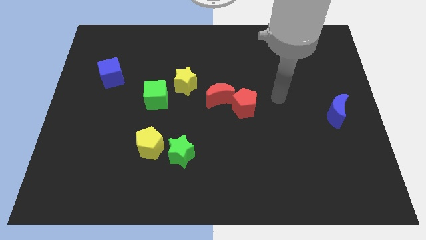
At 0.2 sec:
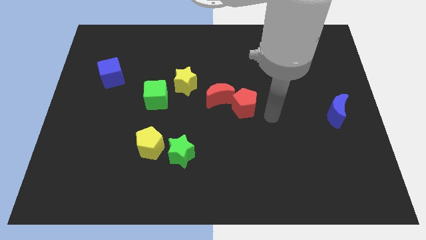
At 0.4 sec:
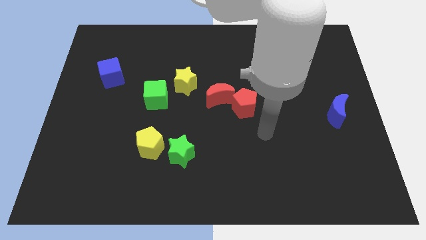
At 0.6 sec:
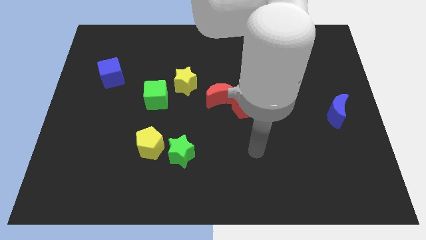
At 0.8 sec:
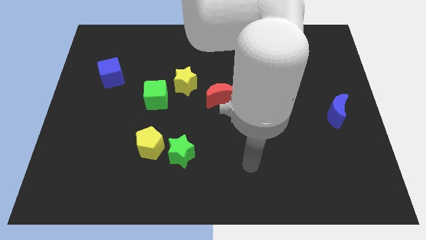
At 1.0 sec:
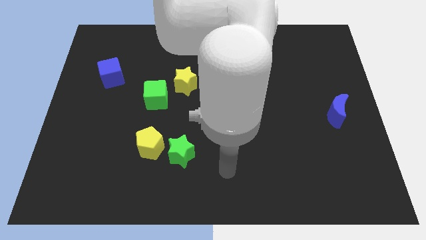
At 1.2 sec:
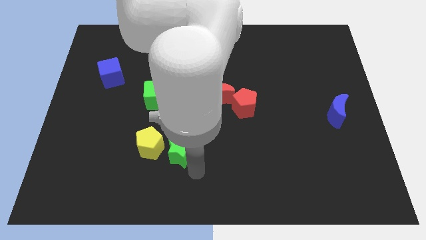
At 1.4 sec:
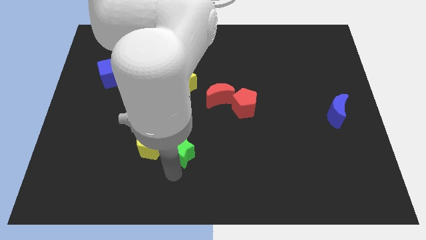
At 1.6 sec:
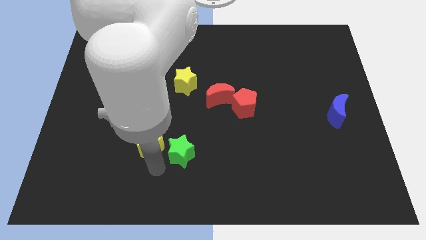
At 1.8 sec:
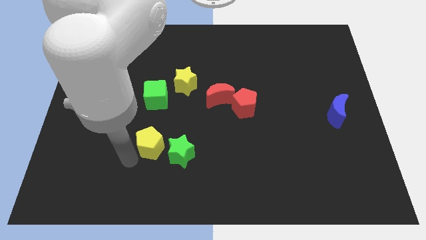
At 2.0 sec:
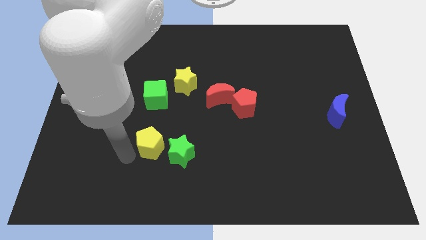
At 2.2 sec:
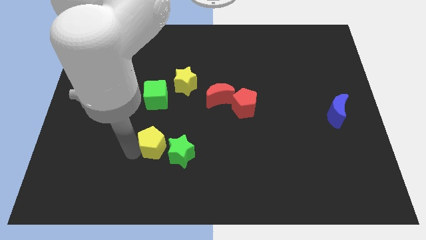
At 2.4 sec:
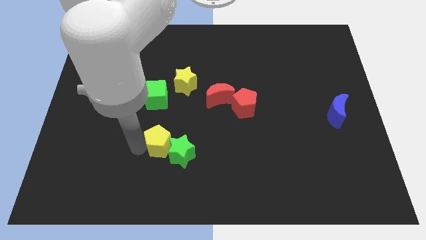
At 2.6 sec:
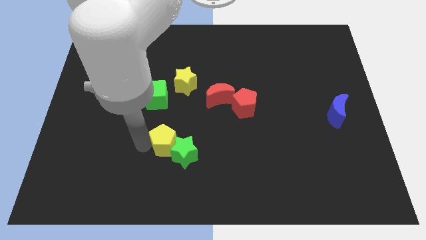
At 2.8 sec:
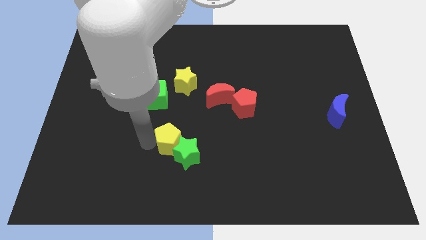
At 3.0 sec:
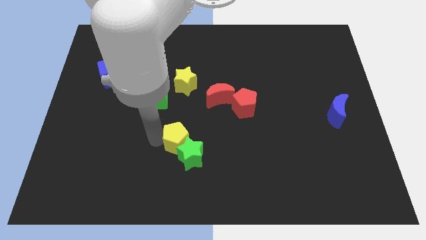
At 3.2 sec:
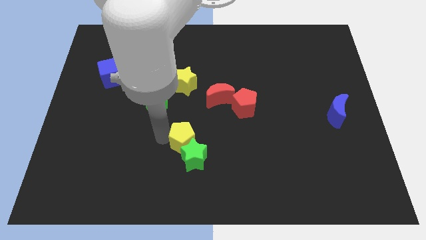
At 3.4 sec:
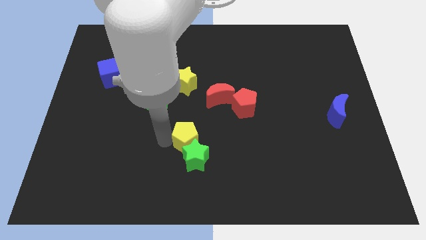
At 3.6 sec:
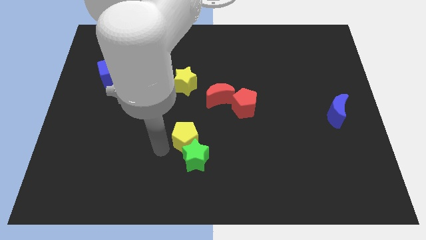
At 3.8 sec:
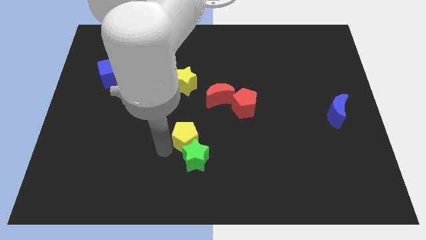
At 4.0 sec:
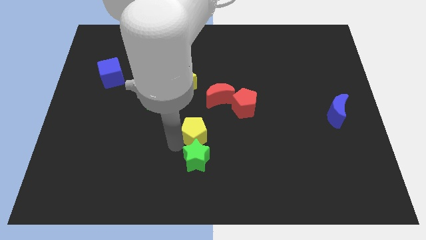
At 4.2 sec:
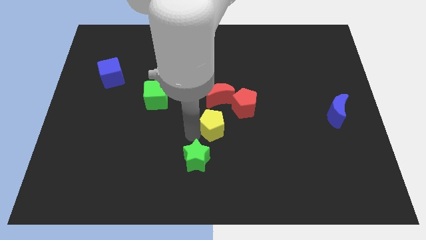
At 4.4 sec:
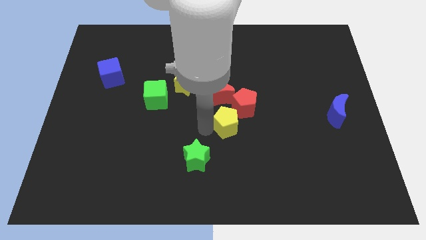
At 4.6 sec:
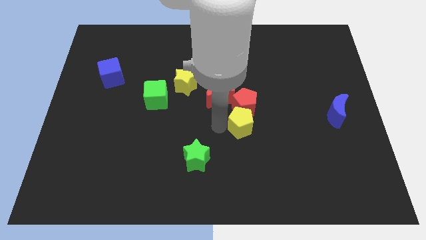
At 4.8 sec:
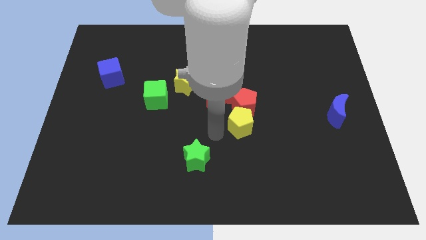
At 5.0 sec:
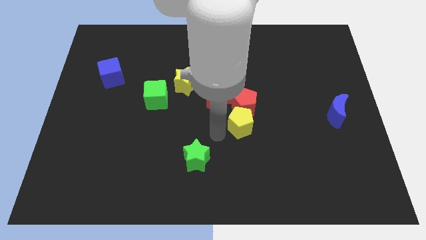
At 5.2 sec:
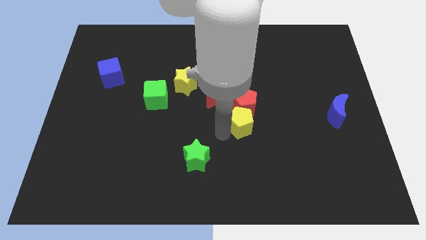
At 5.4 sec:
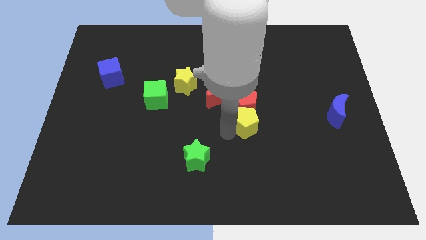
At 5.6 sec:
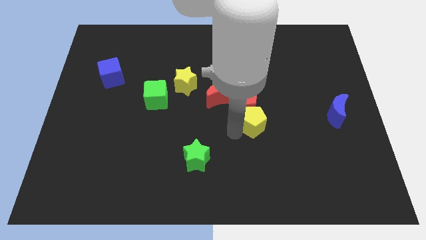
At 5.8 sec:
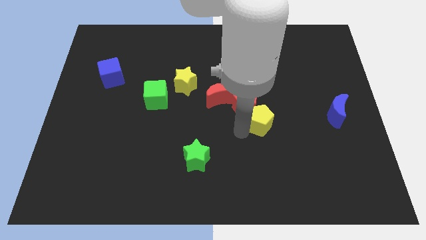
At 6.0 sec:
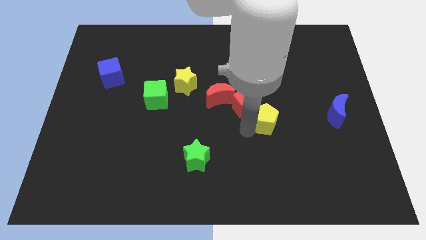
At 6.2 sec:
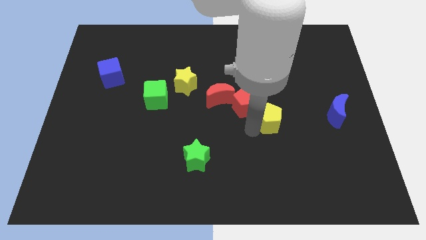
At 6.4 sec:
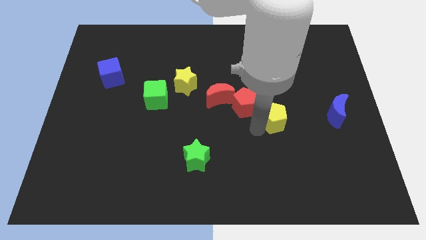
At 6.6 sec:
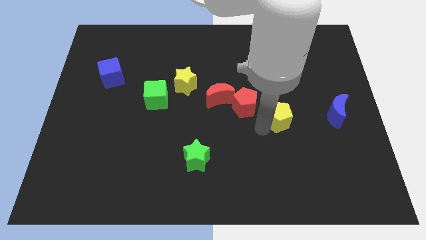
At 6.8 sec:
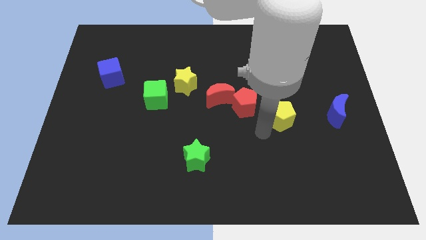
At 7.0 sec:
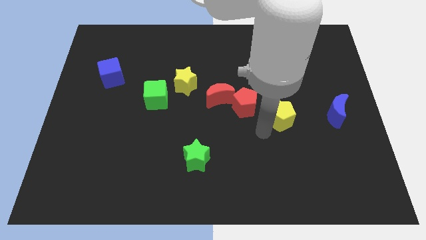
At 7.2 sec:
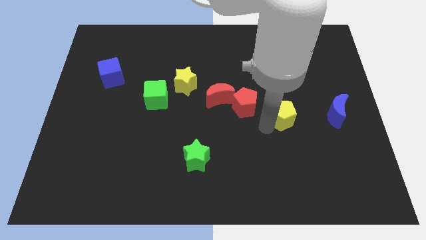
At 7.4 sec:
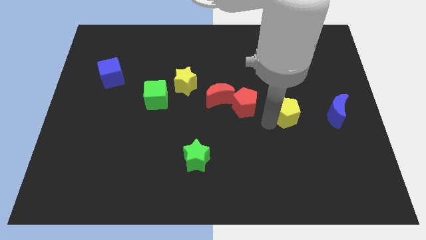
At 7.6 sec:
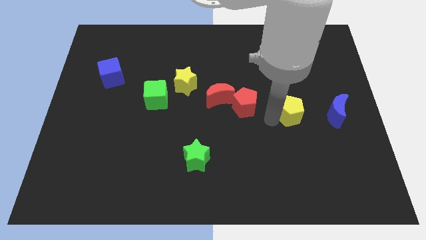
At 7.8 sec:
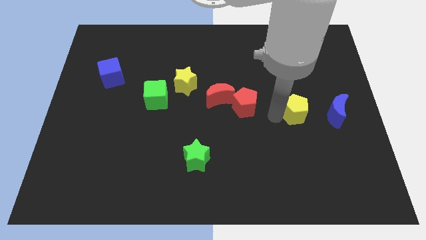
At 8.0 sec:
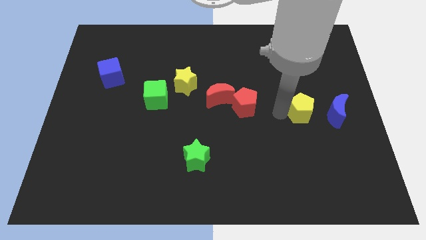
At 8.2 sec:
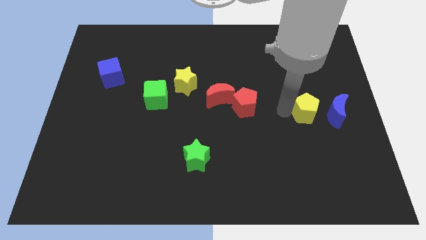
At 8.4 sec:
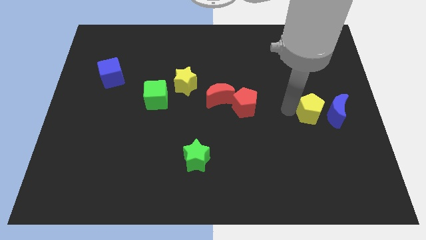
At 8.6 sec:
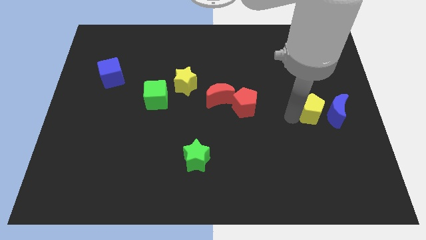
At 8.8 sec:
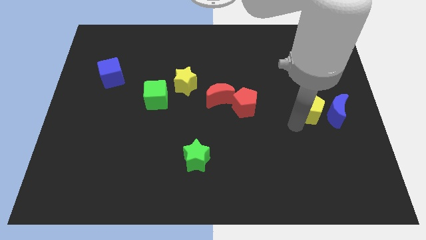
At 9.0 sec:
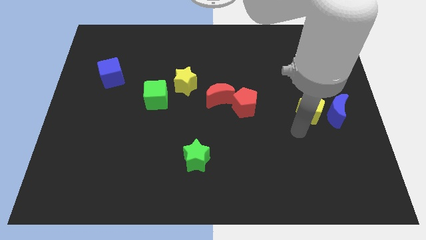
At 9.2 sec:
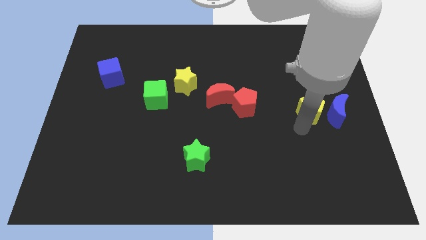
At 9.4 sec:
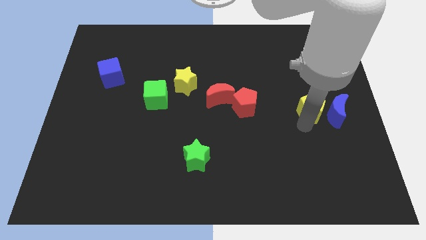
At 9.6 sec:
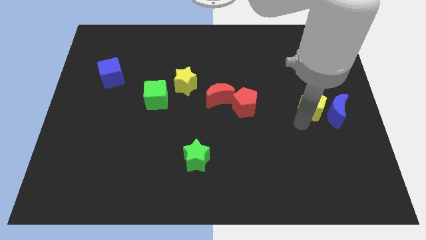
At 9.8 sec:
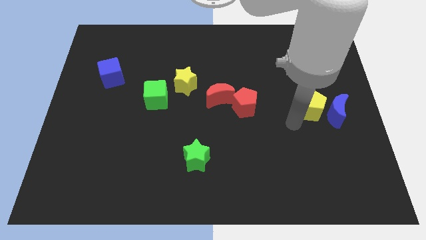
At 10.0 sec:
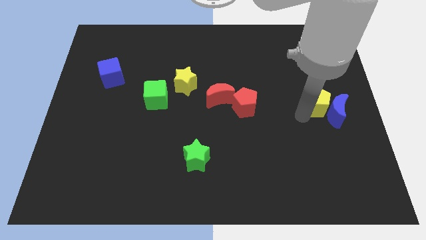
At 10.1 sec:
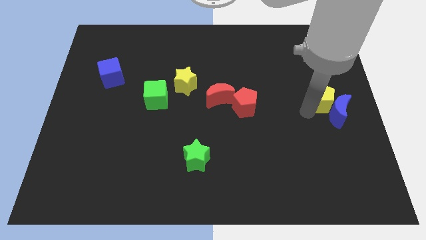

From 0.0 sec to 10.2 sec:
push the yellow pentagon to the right side of the board

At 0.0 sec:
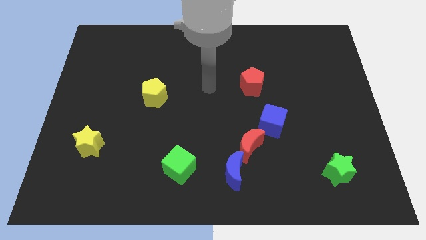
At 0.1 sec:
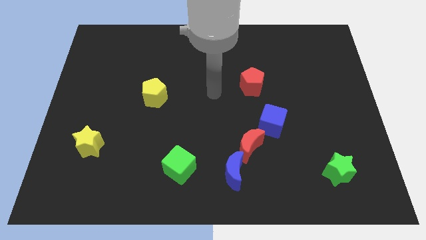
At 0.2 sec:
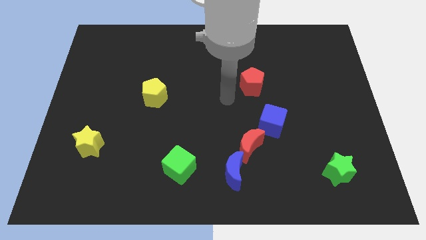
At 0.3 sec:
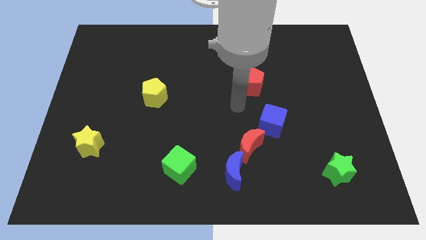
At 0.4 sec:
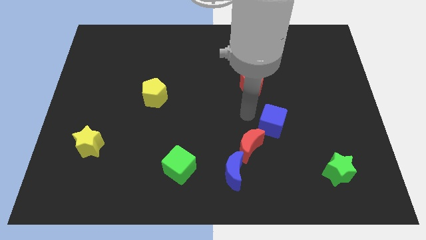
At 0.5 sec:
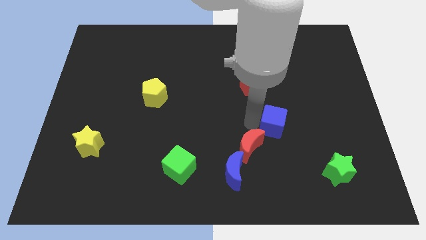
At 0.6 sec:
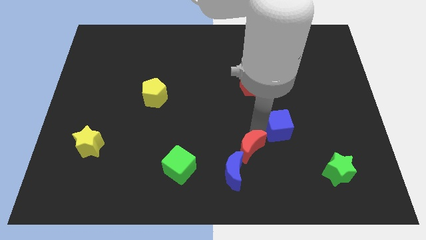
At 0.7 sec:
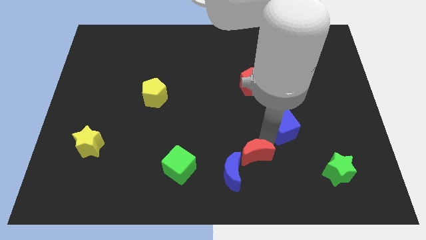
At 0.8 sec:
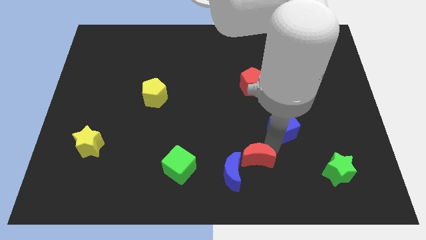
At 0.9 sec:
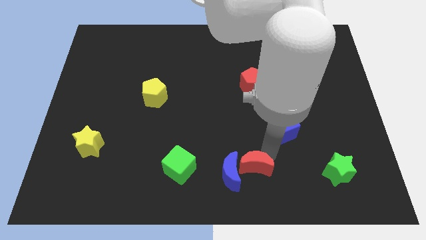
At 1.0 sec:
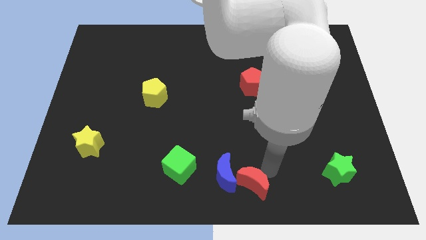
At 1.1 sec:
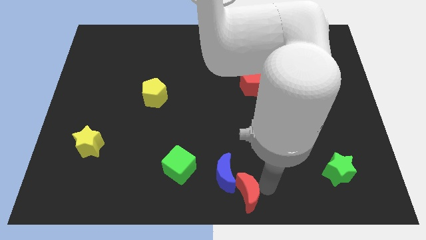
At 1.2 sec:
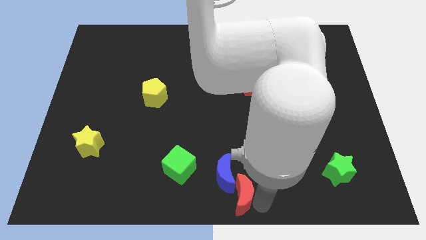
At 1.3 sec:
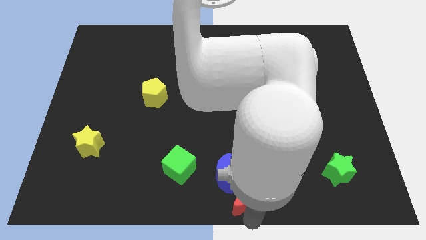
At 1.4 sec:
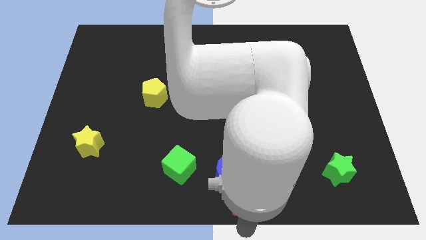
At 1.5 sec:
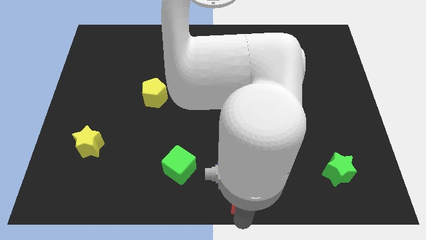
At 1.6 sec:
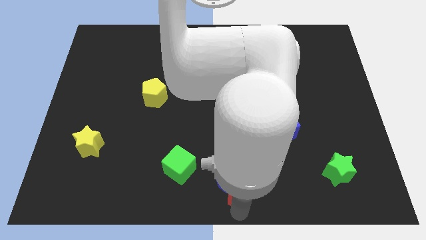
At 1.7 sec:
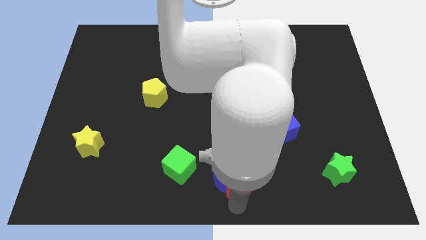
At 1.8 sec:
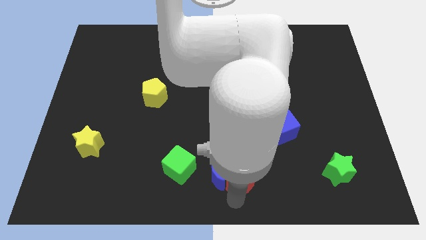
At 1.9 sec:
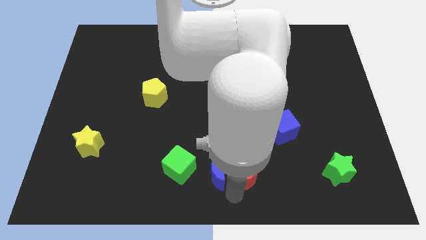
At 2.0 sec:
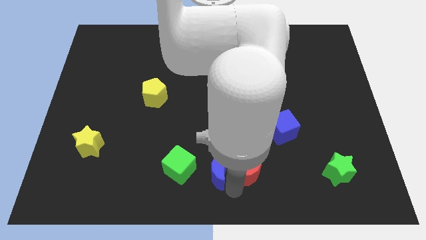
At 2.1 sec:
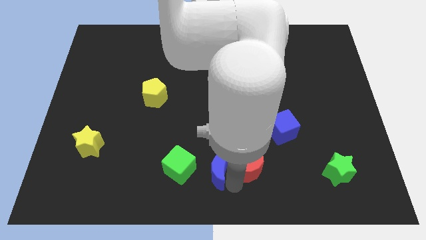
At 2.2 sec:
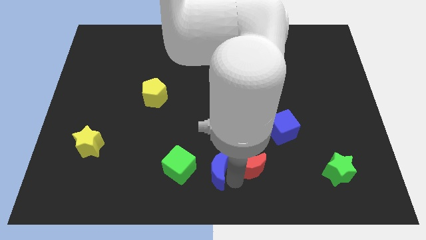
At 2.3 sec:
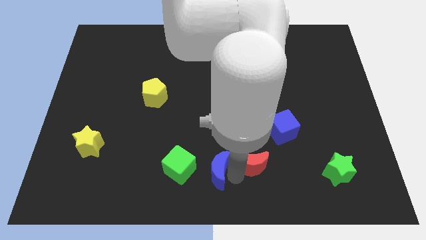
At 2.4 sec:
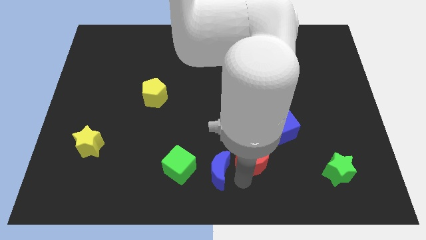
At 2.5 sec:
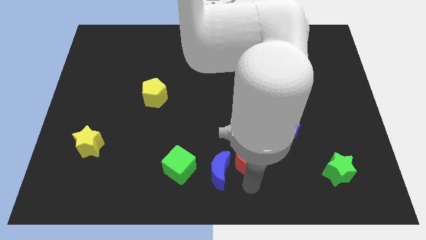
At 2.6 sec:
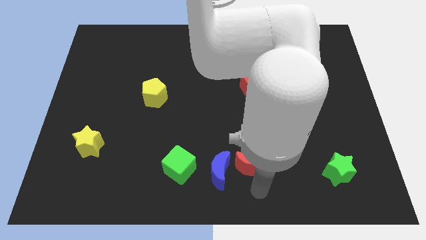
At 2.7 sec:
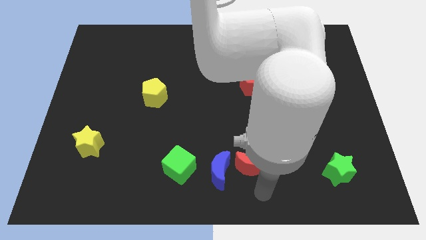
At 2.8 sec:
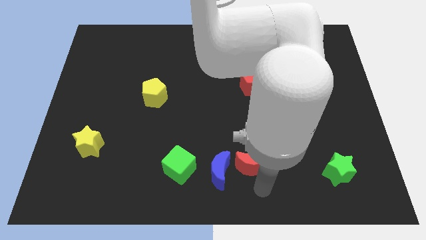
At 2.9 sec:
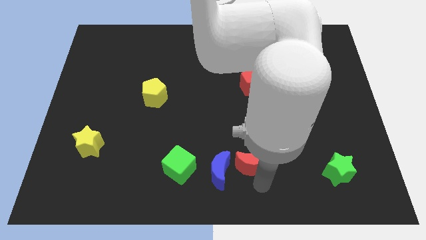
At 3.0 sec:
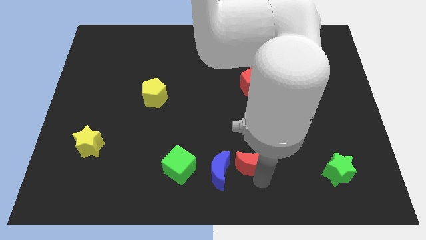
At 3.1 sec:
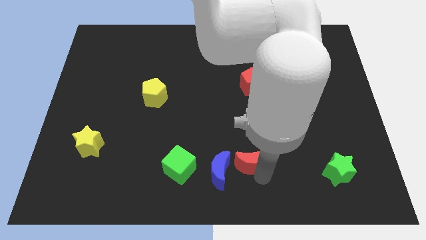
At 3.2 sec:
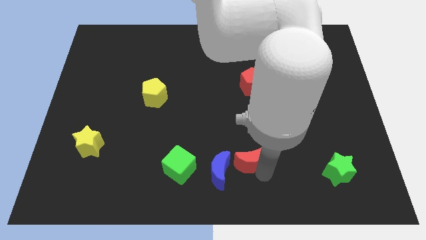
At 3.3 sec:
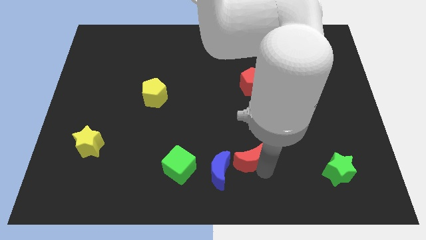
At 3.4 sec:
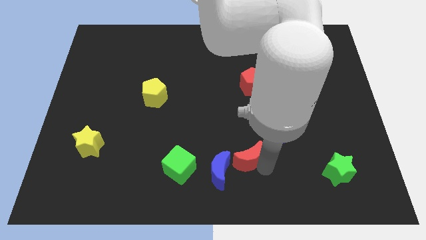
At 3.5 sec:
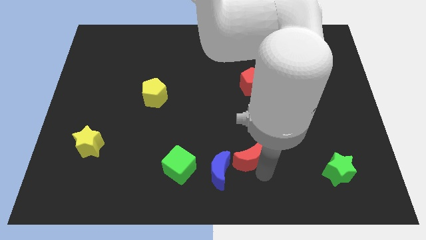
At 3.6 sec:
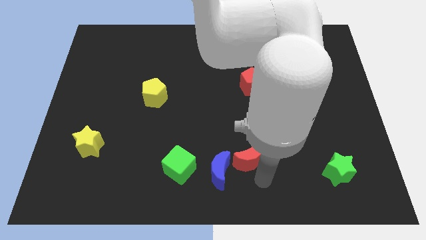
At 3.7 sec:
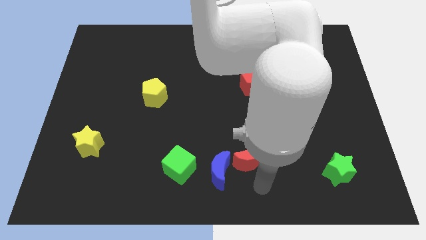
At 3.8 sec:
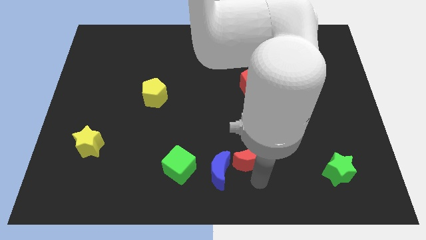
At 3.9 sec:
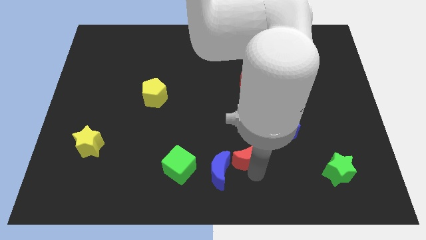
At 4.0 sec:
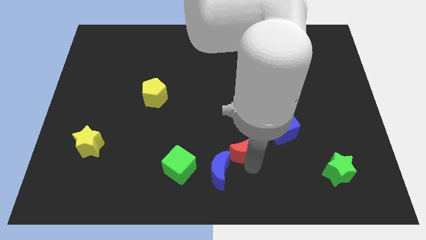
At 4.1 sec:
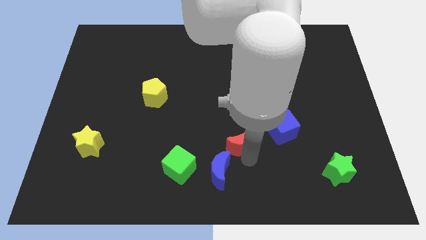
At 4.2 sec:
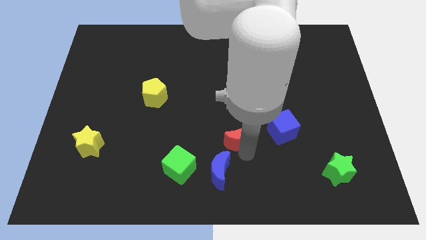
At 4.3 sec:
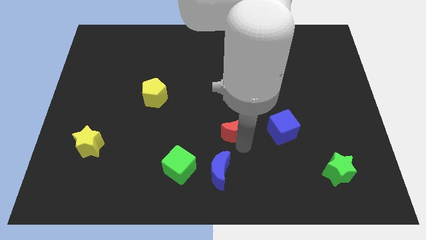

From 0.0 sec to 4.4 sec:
put the red moon to the middle
